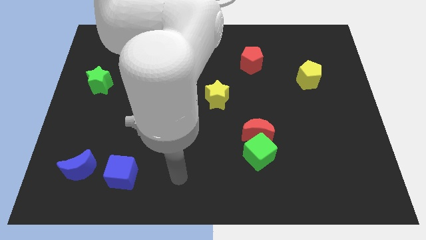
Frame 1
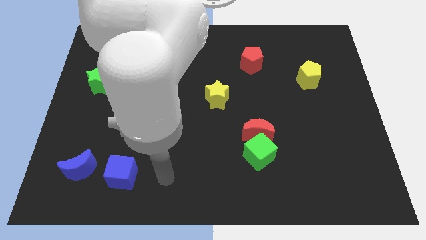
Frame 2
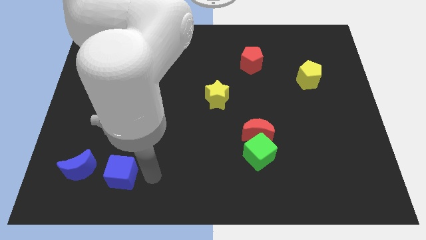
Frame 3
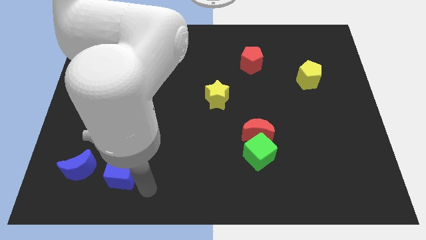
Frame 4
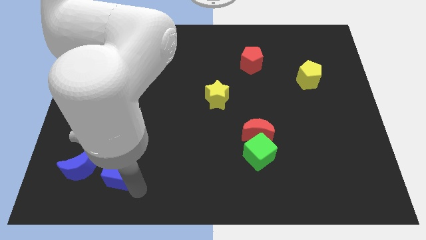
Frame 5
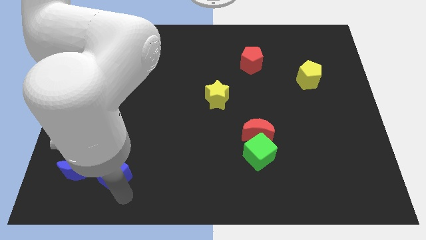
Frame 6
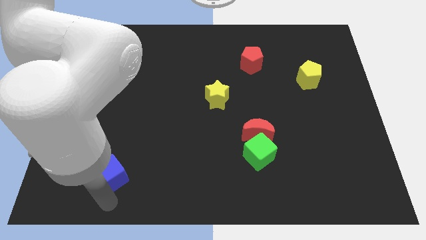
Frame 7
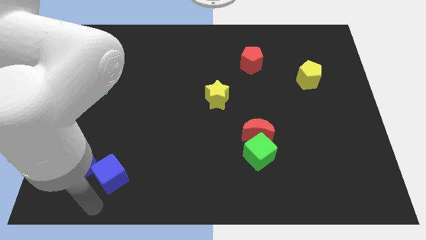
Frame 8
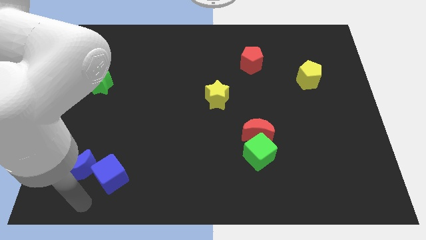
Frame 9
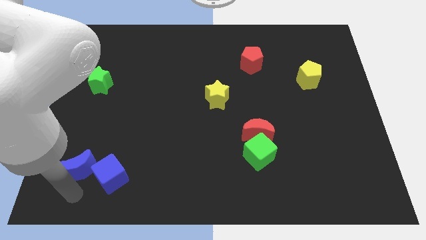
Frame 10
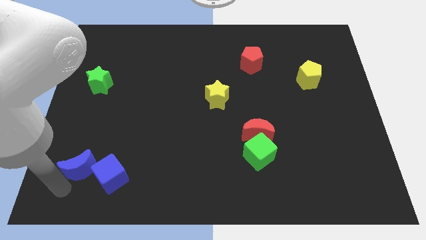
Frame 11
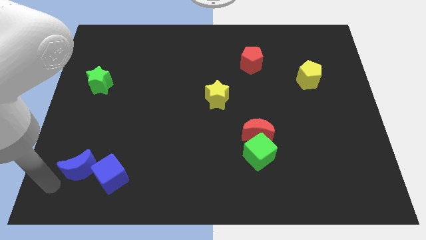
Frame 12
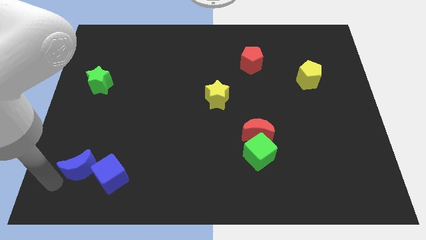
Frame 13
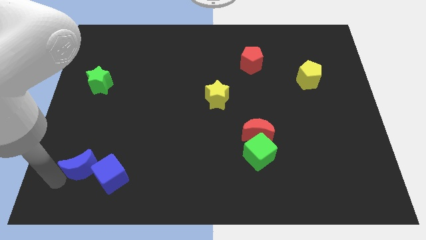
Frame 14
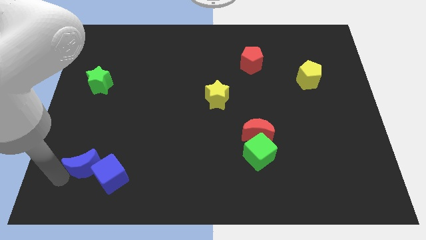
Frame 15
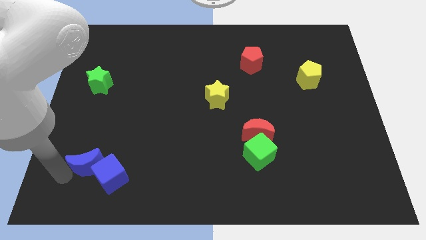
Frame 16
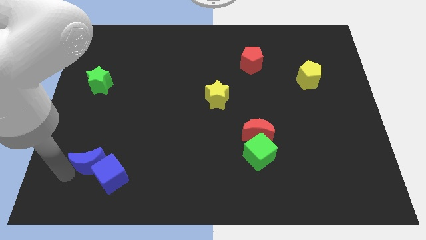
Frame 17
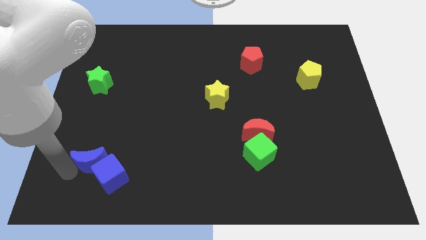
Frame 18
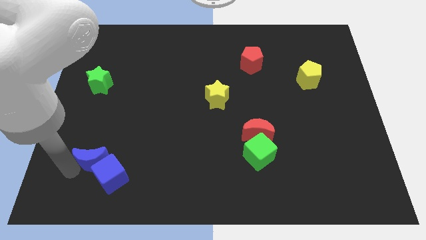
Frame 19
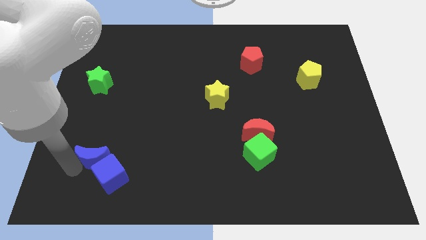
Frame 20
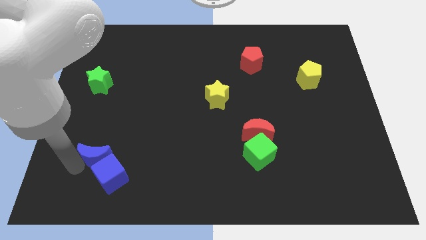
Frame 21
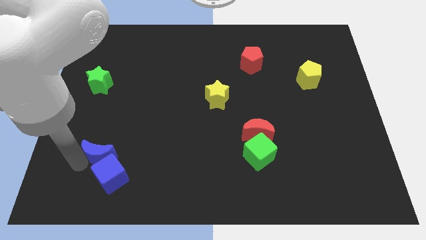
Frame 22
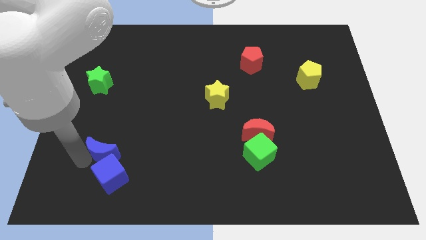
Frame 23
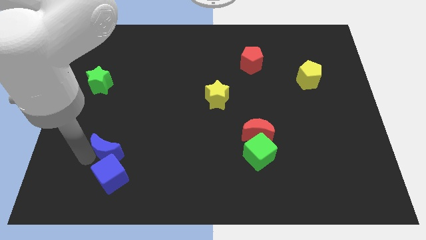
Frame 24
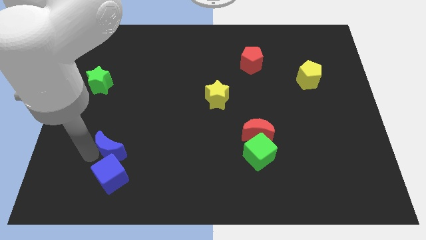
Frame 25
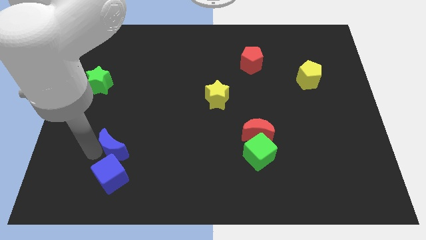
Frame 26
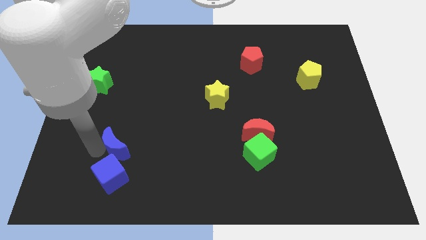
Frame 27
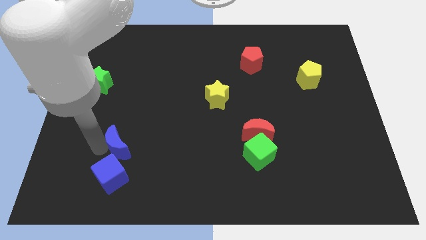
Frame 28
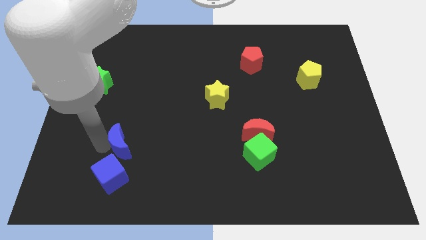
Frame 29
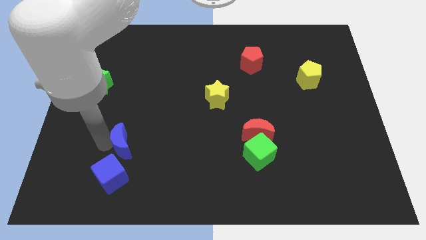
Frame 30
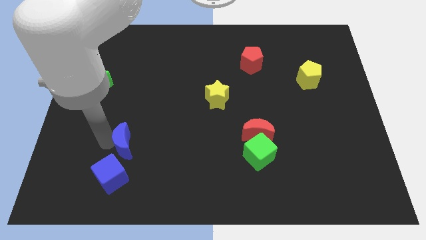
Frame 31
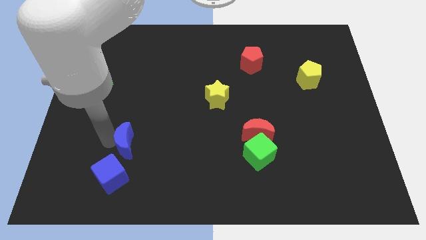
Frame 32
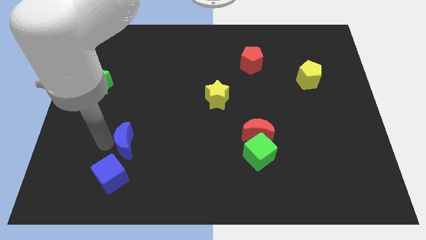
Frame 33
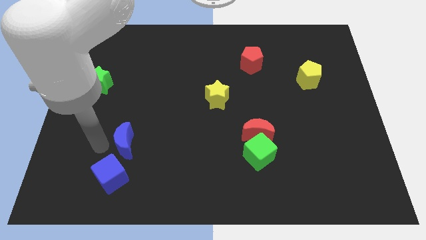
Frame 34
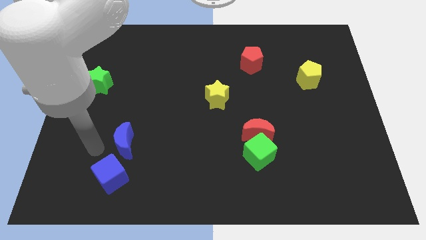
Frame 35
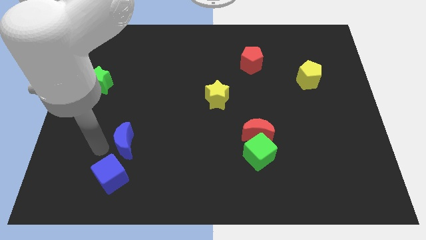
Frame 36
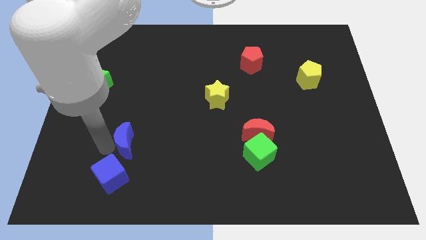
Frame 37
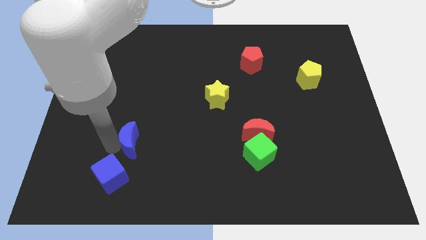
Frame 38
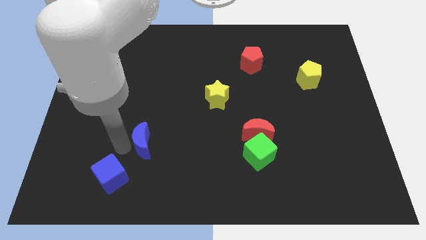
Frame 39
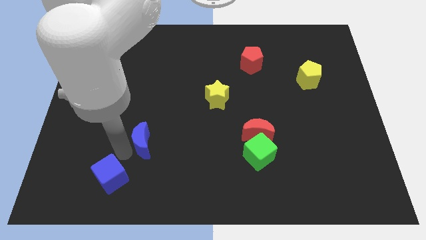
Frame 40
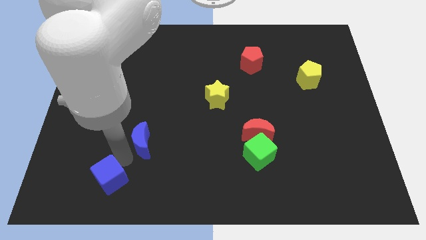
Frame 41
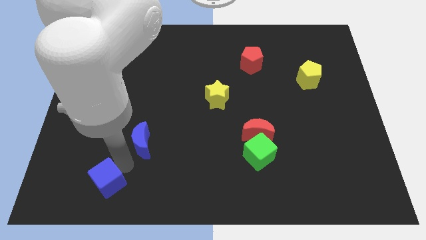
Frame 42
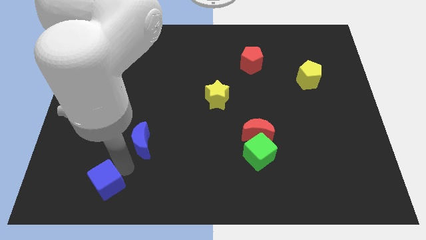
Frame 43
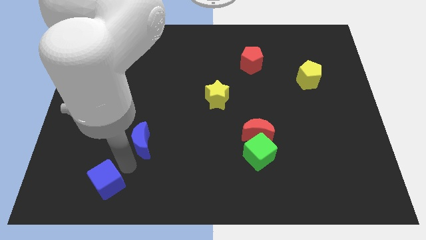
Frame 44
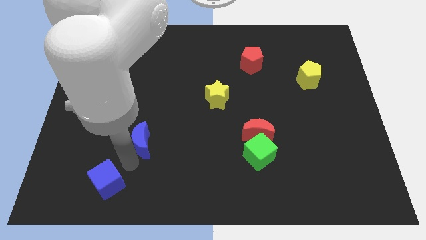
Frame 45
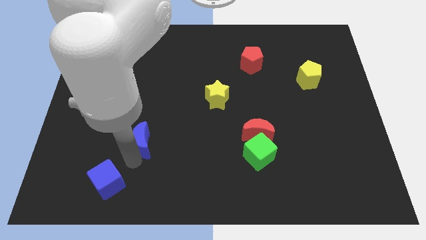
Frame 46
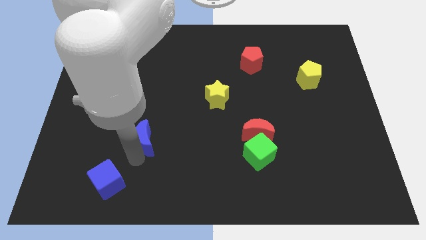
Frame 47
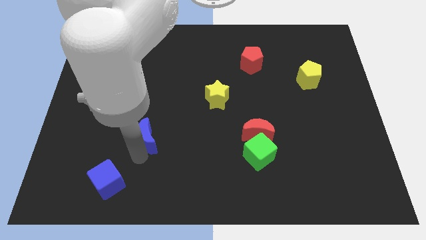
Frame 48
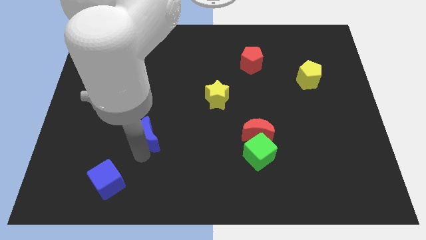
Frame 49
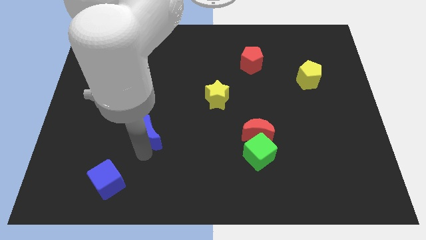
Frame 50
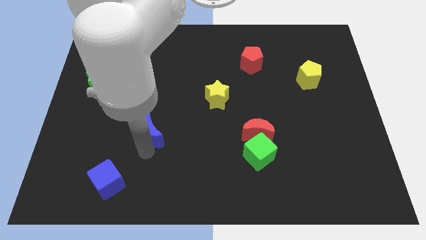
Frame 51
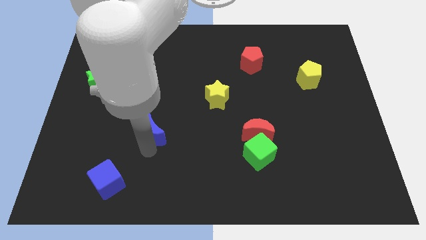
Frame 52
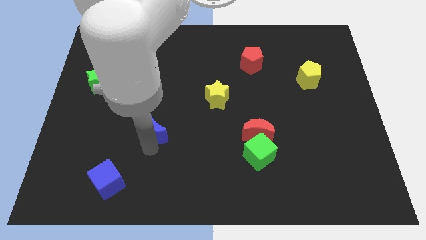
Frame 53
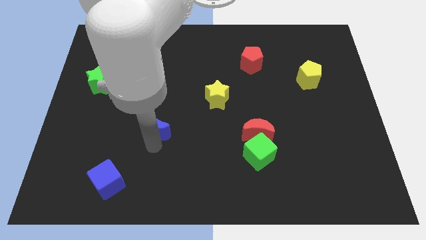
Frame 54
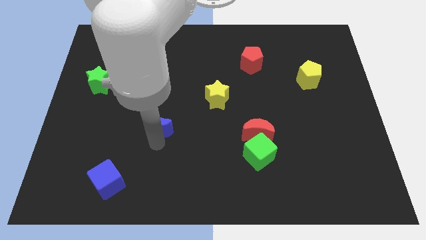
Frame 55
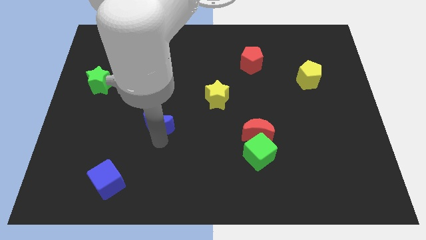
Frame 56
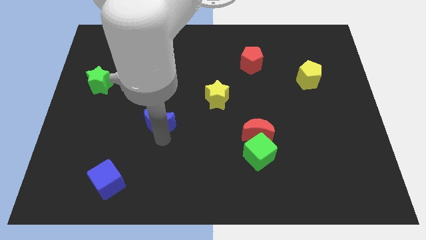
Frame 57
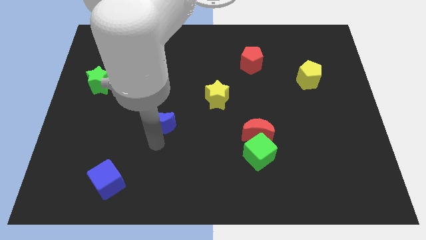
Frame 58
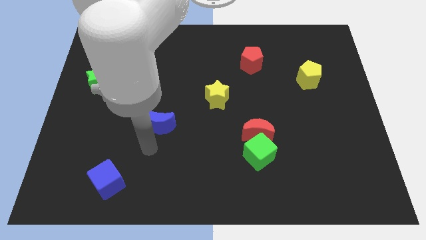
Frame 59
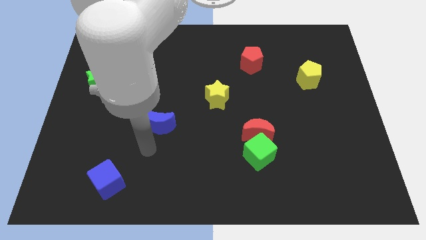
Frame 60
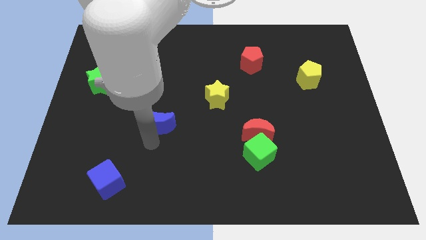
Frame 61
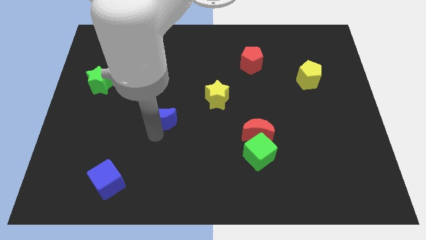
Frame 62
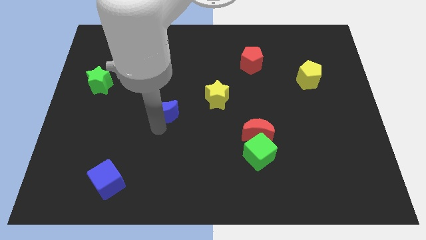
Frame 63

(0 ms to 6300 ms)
move the blue moon left of the yellow star

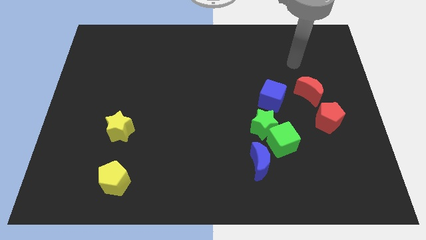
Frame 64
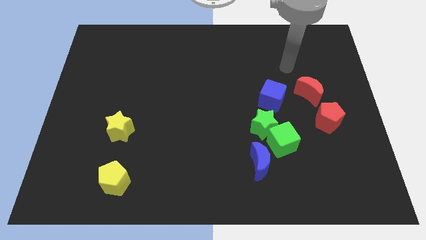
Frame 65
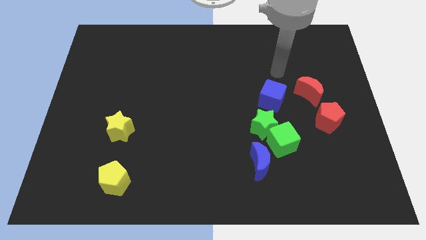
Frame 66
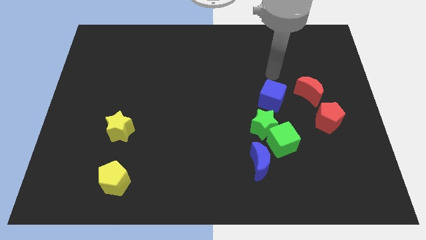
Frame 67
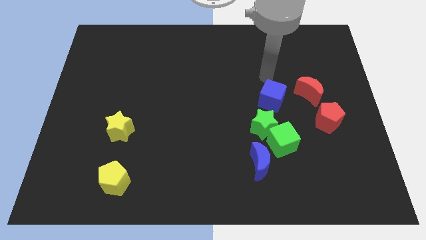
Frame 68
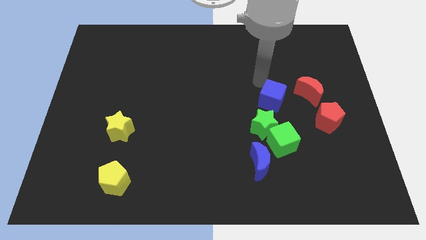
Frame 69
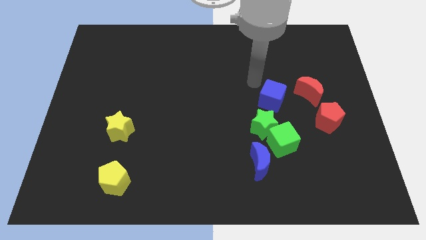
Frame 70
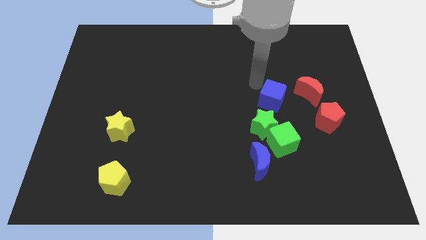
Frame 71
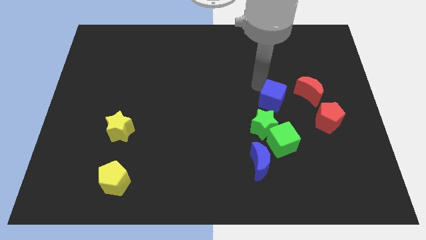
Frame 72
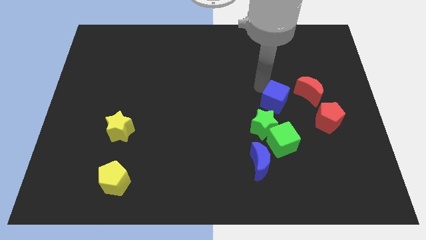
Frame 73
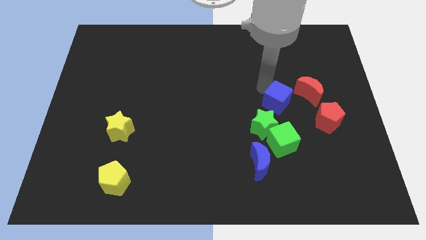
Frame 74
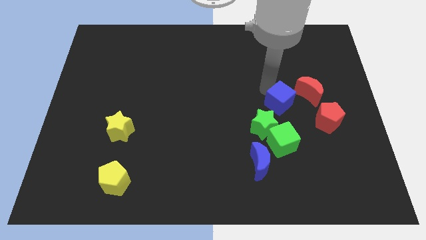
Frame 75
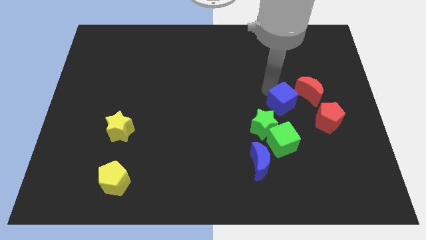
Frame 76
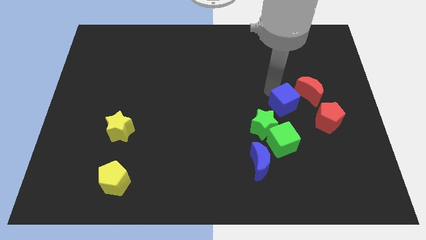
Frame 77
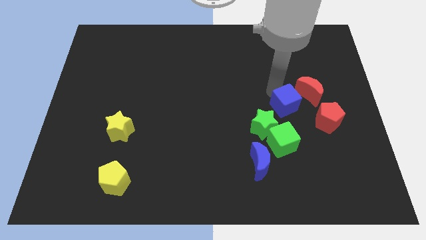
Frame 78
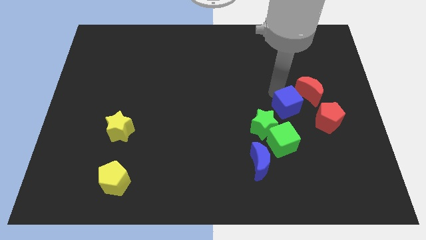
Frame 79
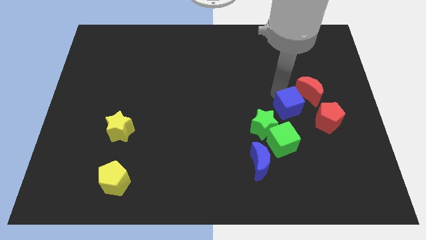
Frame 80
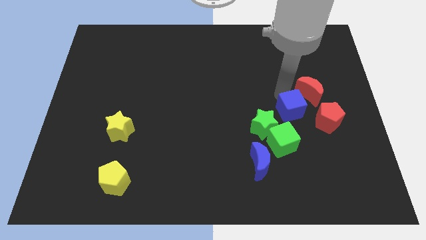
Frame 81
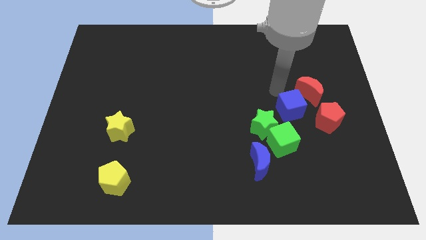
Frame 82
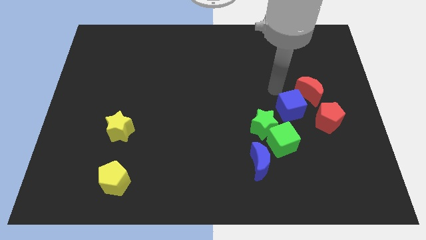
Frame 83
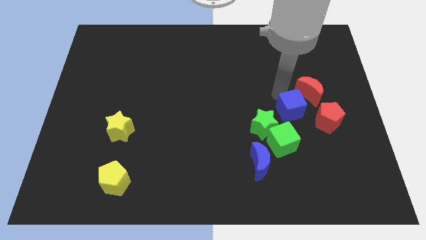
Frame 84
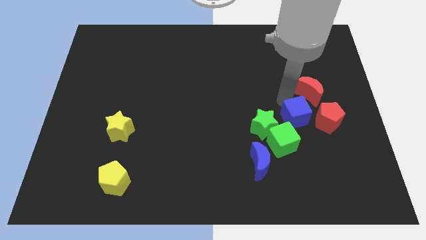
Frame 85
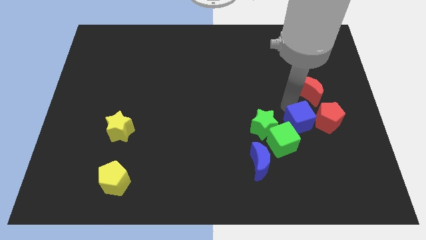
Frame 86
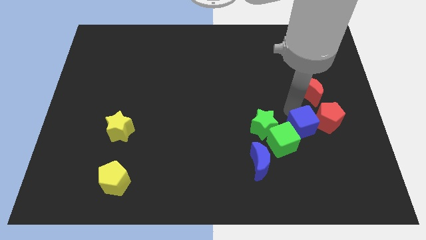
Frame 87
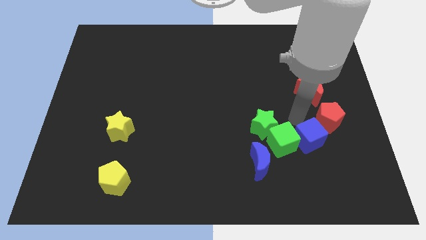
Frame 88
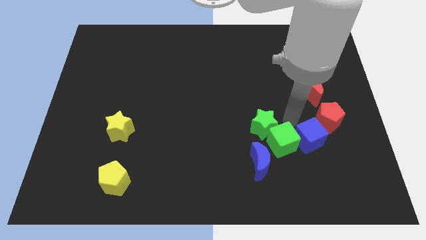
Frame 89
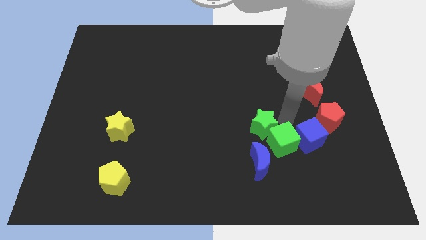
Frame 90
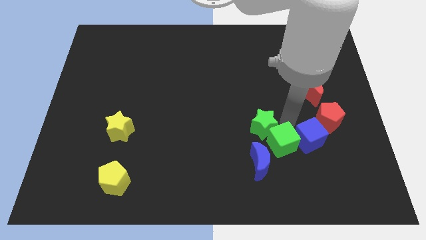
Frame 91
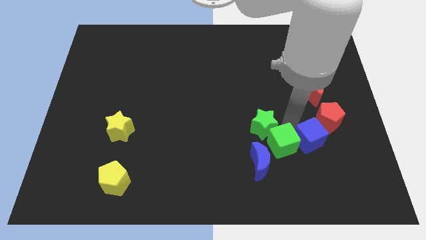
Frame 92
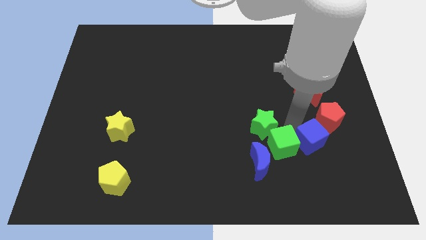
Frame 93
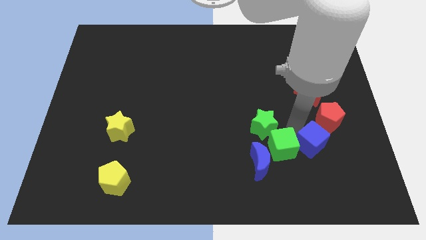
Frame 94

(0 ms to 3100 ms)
push the blue cube below the red pentagon
